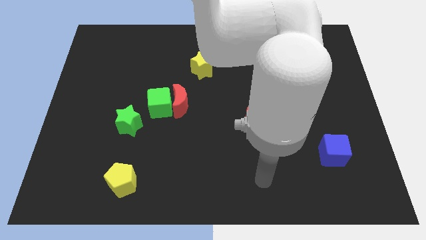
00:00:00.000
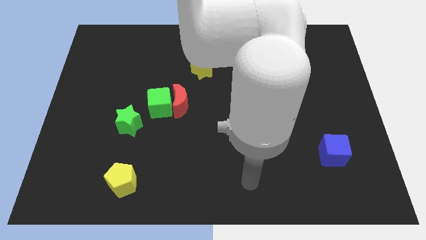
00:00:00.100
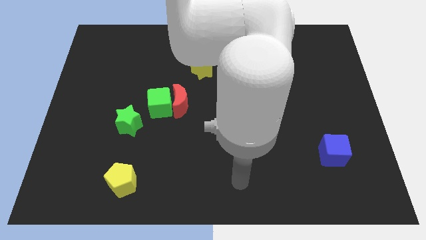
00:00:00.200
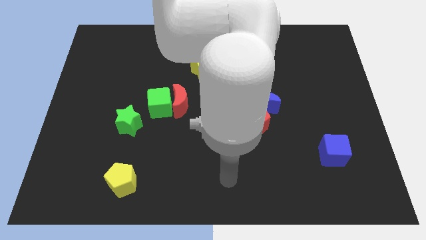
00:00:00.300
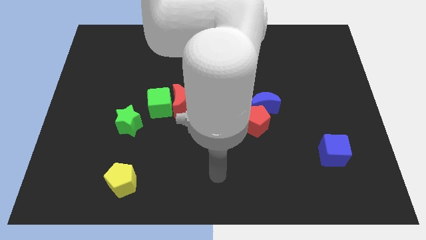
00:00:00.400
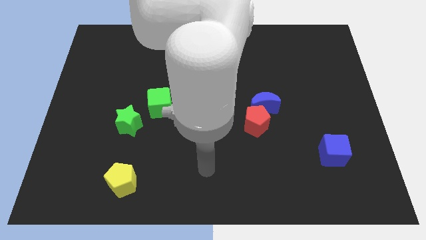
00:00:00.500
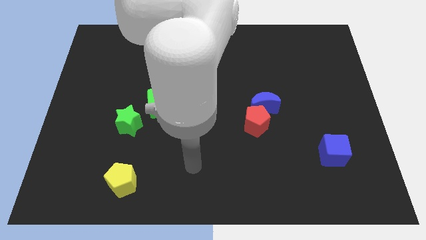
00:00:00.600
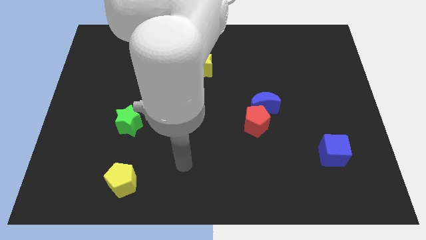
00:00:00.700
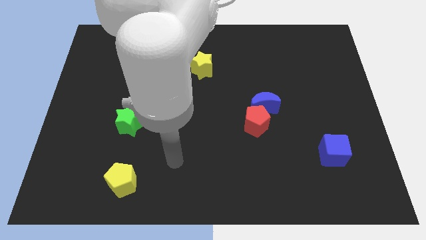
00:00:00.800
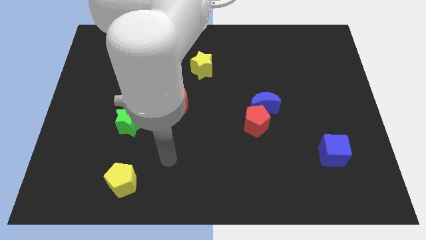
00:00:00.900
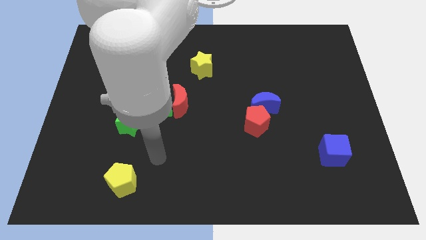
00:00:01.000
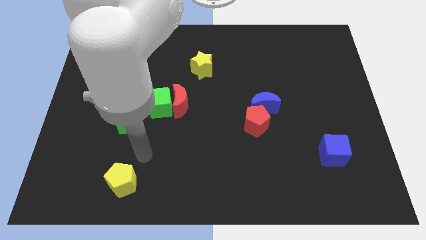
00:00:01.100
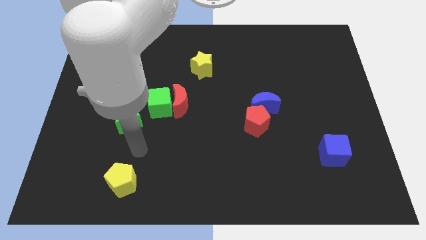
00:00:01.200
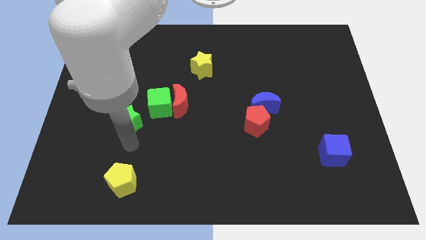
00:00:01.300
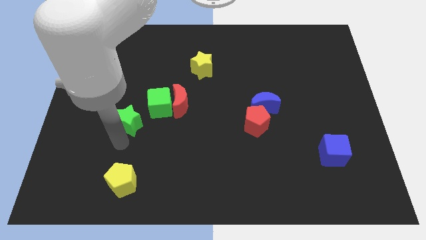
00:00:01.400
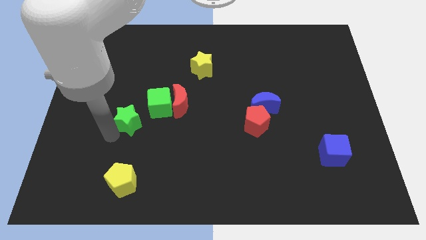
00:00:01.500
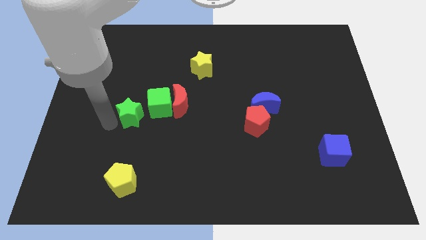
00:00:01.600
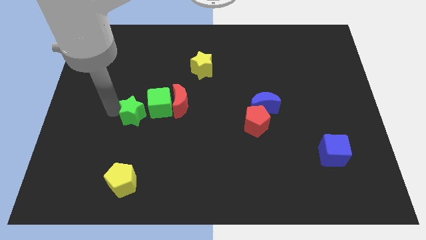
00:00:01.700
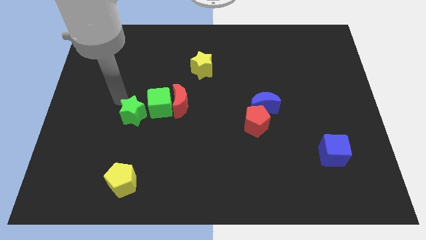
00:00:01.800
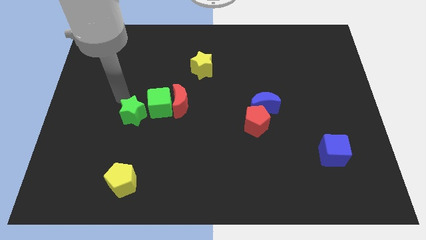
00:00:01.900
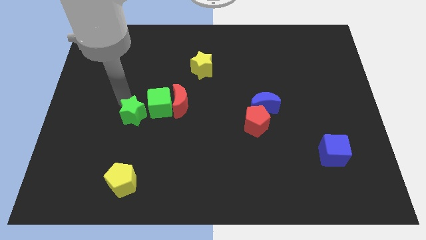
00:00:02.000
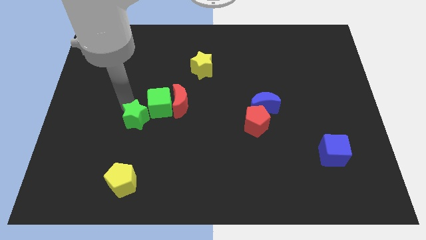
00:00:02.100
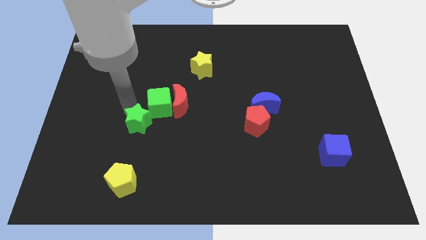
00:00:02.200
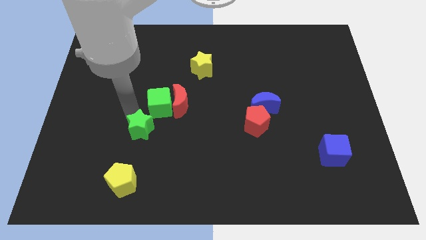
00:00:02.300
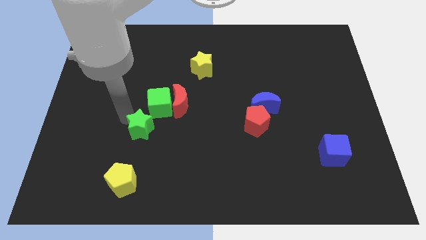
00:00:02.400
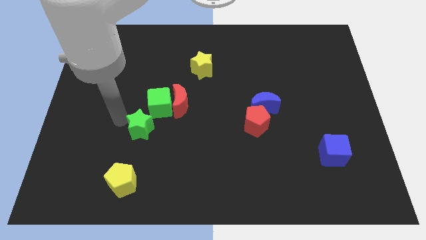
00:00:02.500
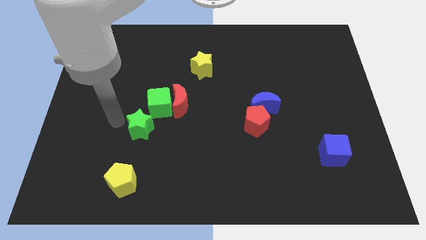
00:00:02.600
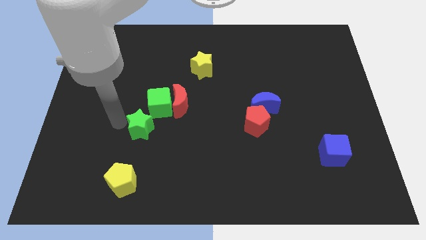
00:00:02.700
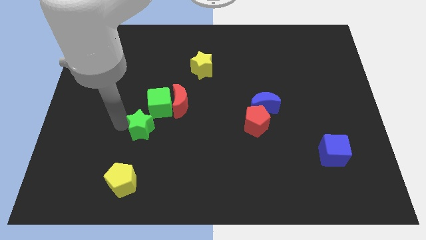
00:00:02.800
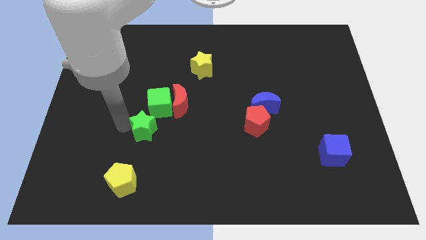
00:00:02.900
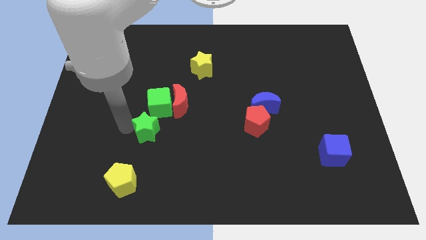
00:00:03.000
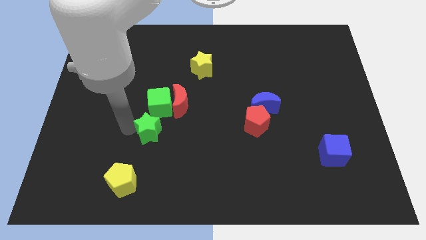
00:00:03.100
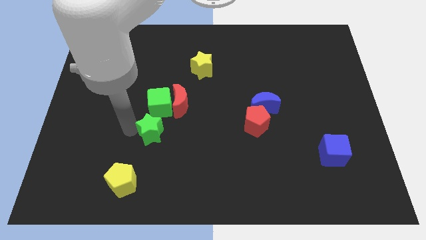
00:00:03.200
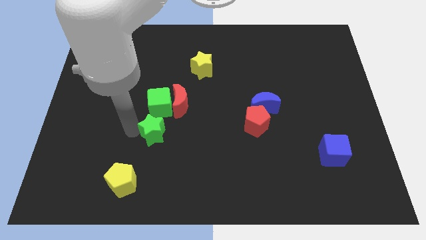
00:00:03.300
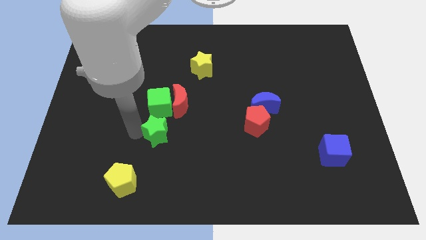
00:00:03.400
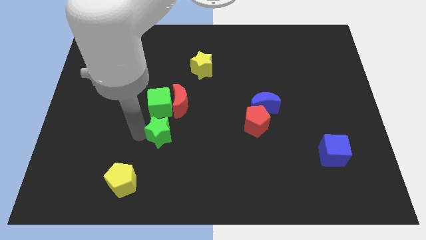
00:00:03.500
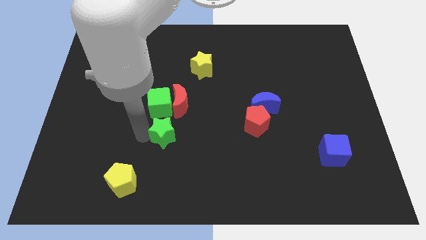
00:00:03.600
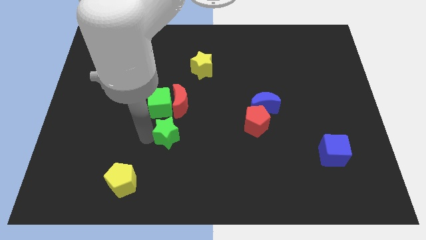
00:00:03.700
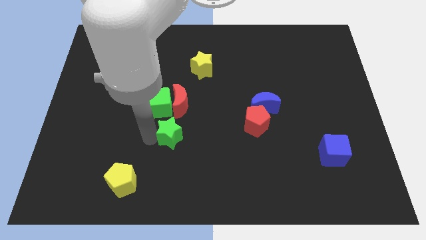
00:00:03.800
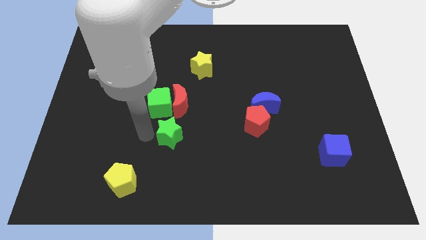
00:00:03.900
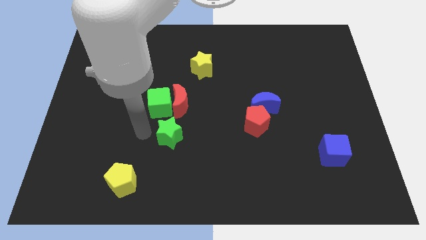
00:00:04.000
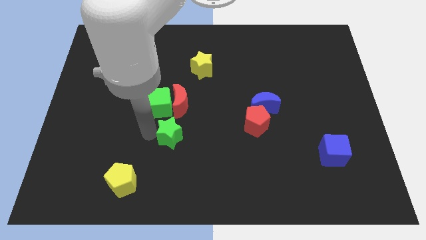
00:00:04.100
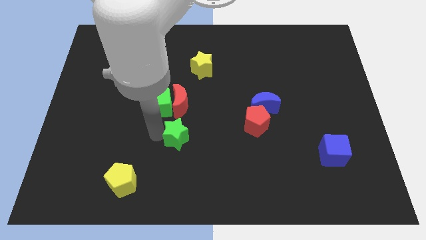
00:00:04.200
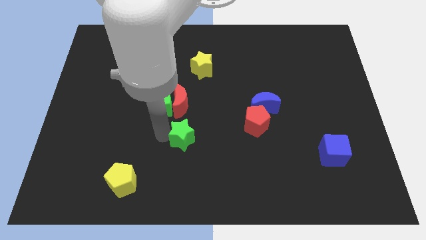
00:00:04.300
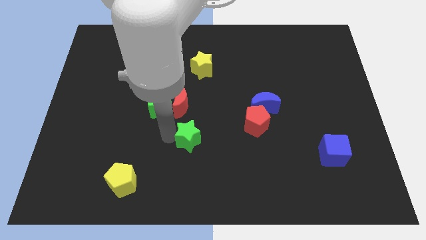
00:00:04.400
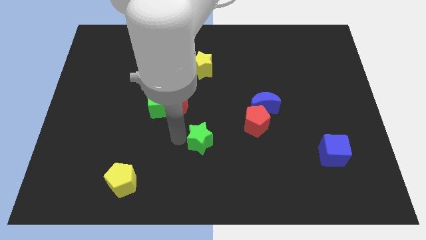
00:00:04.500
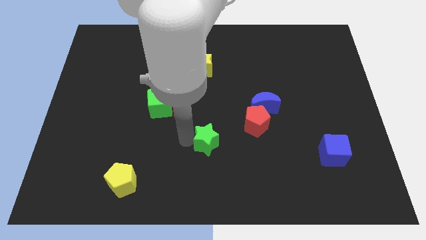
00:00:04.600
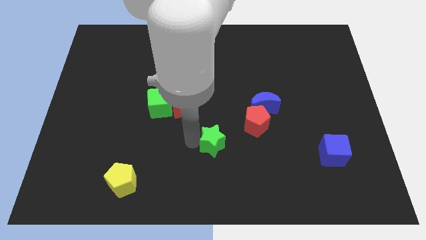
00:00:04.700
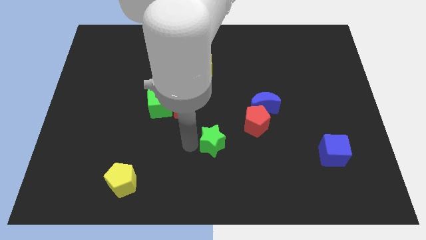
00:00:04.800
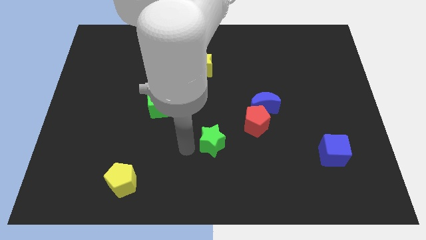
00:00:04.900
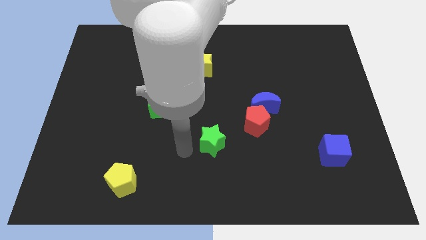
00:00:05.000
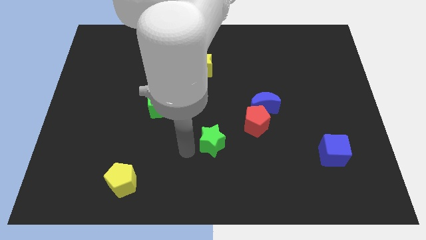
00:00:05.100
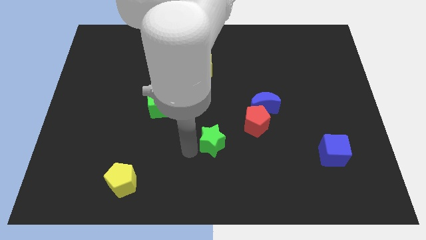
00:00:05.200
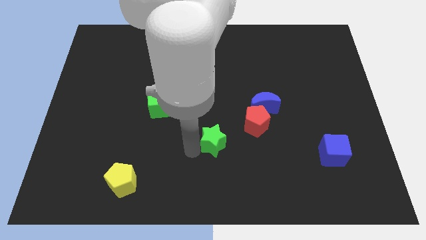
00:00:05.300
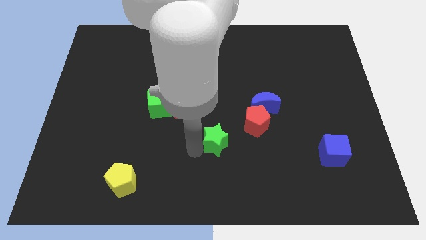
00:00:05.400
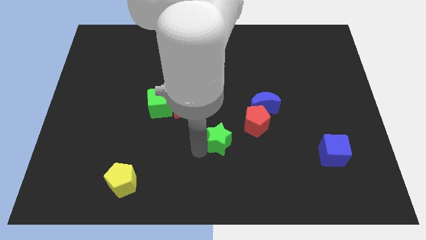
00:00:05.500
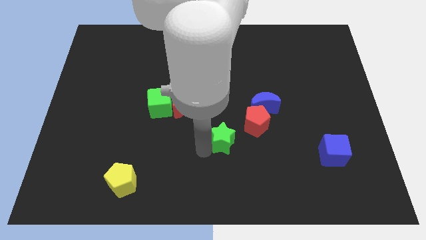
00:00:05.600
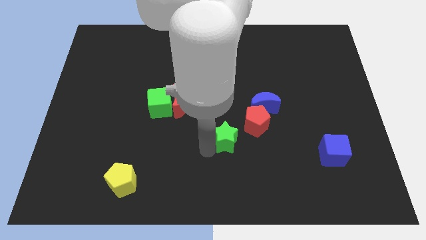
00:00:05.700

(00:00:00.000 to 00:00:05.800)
put the green star to the bottom left side of the blue moon

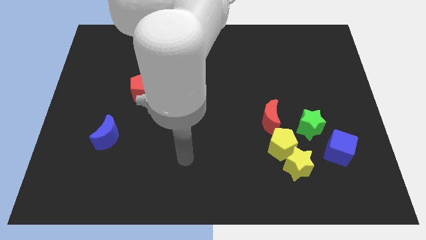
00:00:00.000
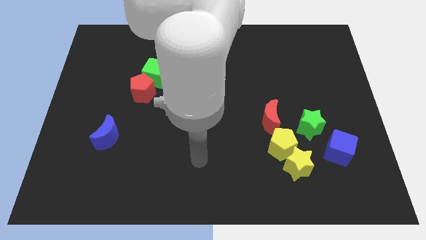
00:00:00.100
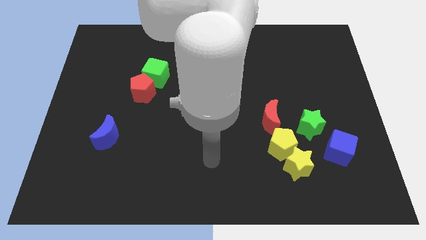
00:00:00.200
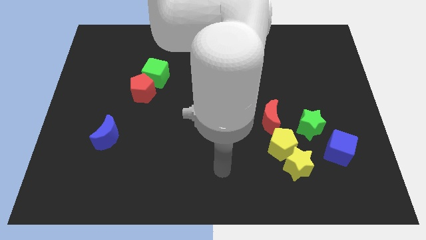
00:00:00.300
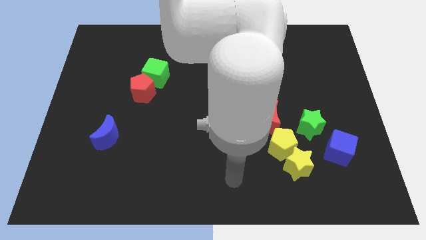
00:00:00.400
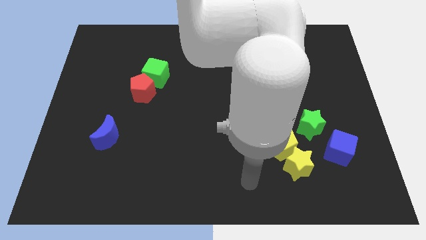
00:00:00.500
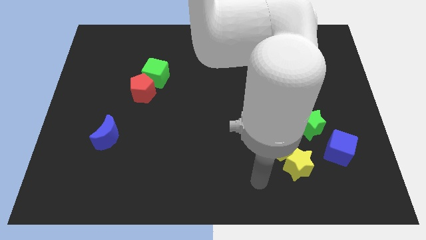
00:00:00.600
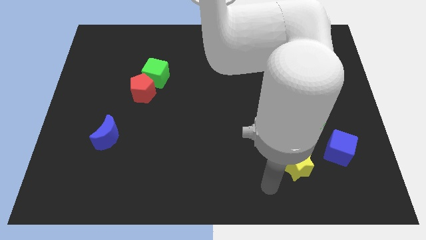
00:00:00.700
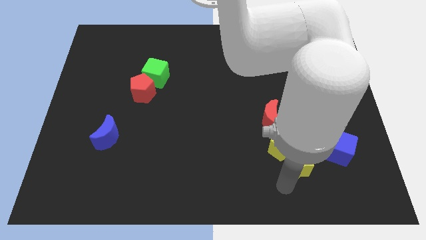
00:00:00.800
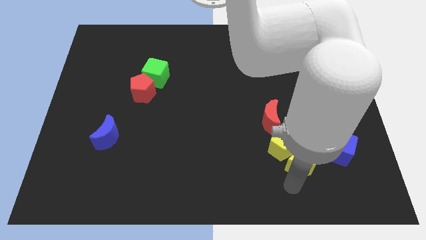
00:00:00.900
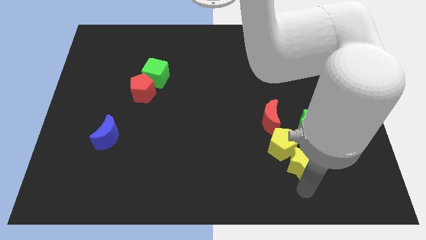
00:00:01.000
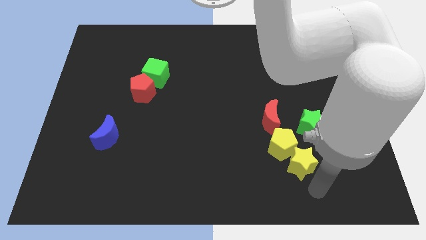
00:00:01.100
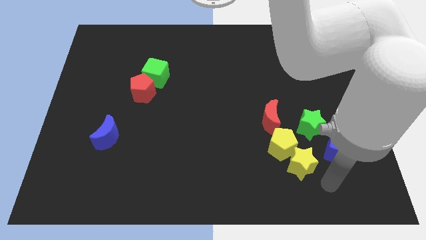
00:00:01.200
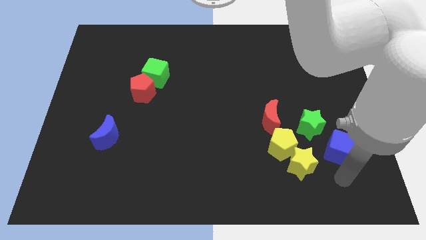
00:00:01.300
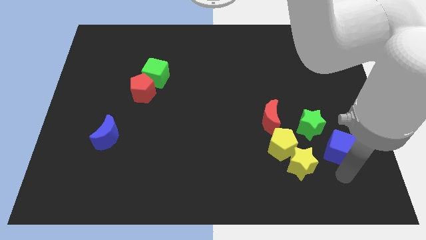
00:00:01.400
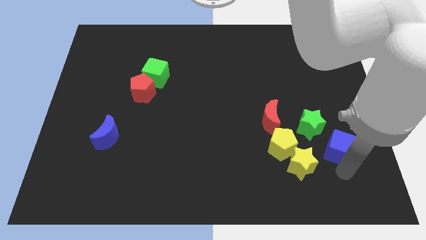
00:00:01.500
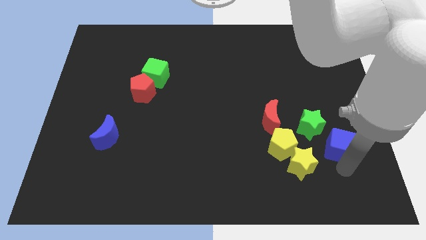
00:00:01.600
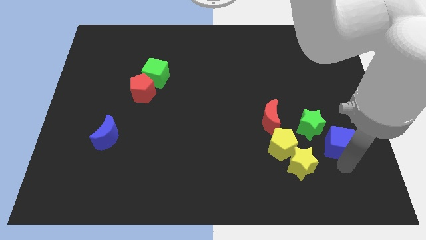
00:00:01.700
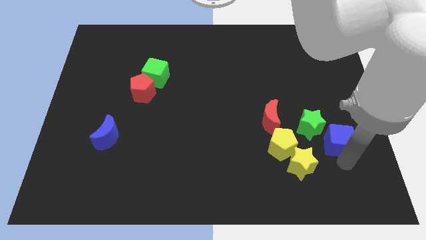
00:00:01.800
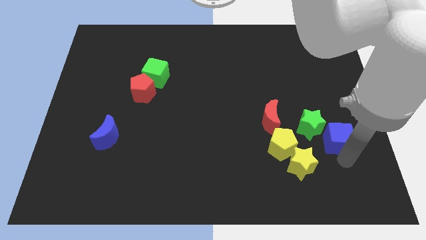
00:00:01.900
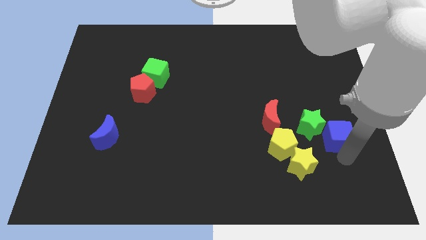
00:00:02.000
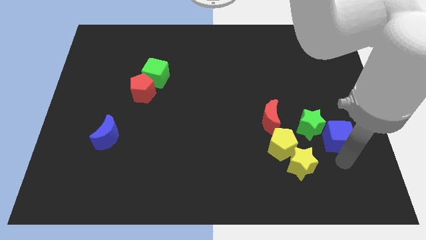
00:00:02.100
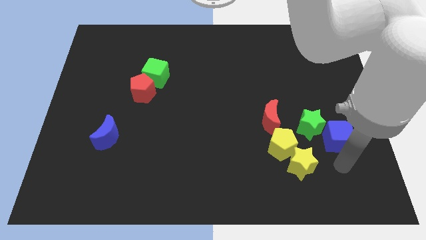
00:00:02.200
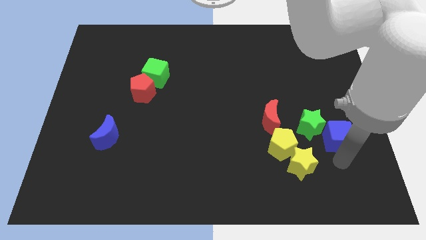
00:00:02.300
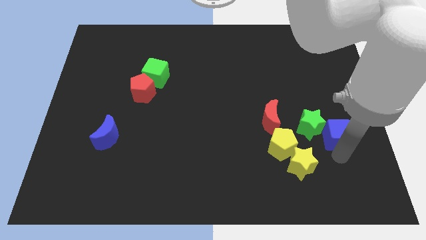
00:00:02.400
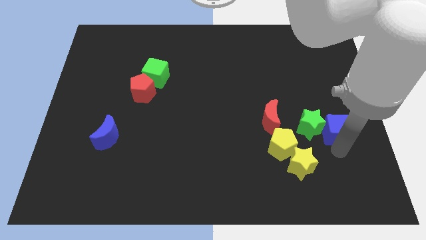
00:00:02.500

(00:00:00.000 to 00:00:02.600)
push the blue cube to the top right side of the green star
